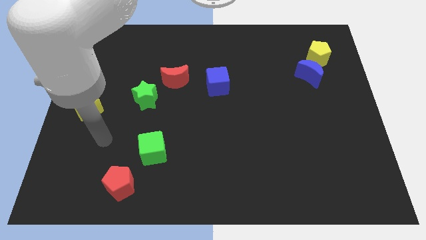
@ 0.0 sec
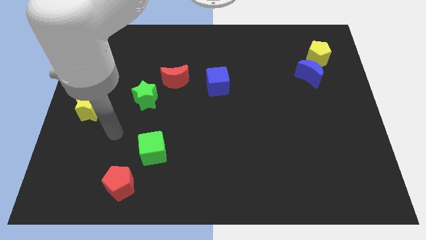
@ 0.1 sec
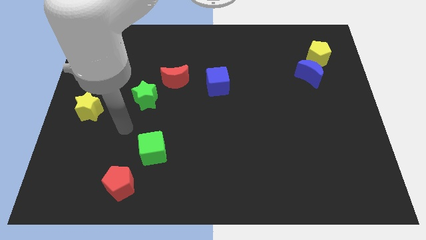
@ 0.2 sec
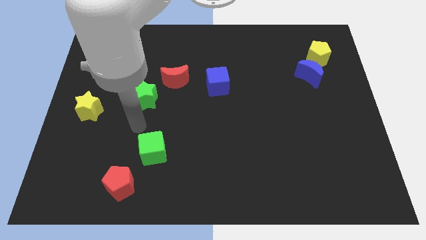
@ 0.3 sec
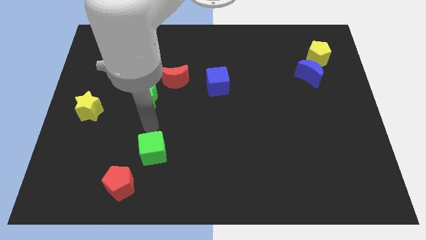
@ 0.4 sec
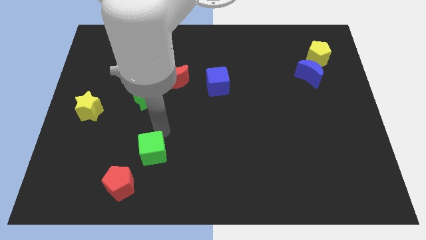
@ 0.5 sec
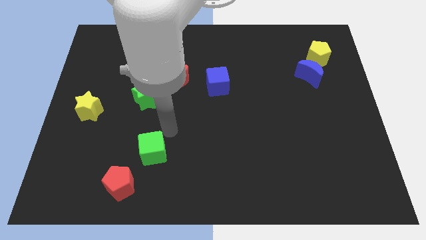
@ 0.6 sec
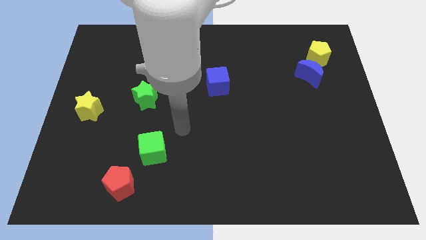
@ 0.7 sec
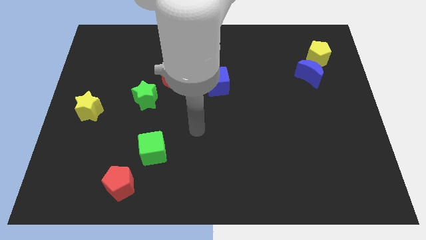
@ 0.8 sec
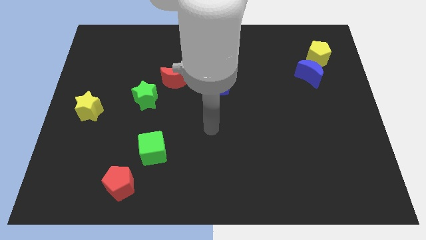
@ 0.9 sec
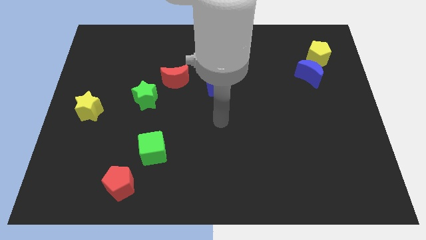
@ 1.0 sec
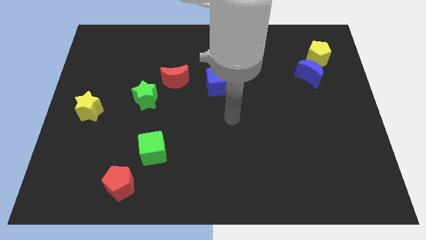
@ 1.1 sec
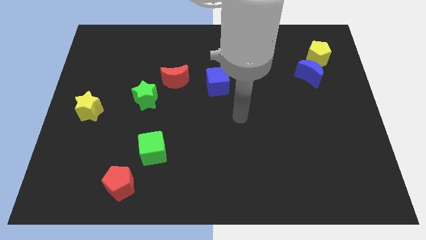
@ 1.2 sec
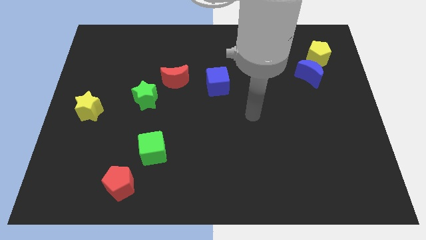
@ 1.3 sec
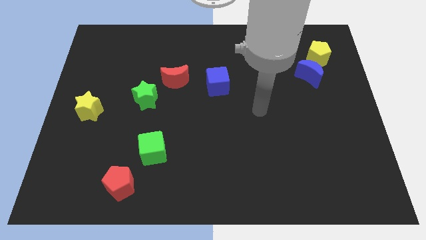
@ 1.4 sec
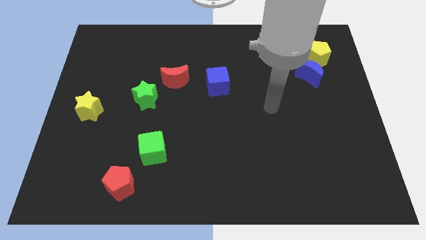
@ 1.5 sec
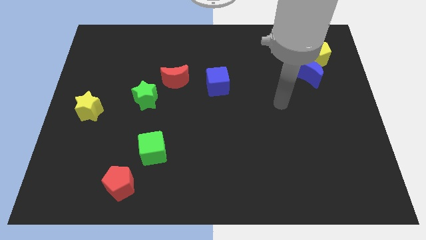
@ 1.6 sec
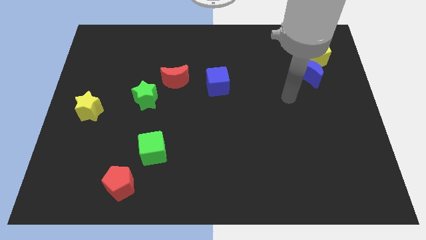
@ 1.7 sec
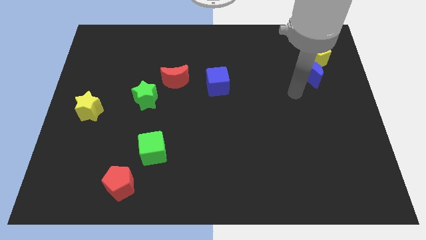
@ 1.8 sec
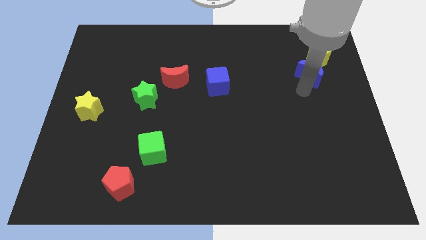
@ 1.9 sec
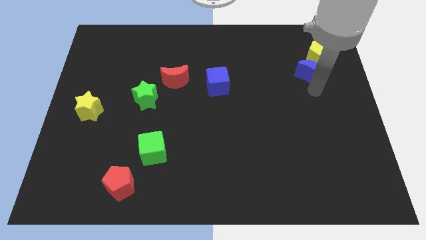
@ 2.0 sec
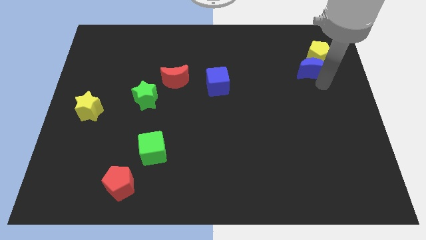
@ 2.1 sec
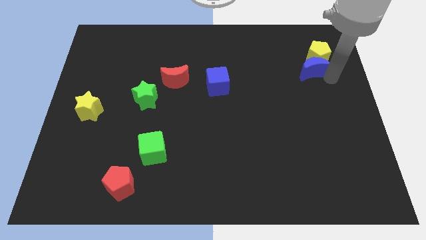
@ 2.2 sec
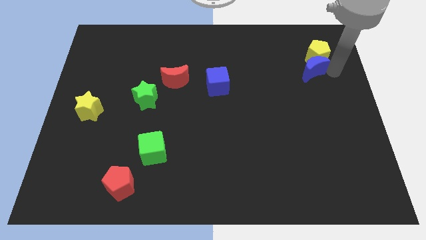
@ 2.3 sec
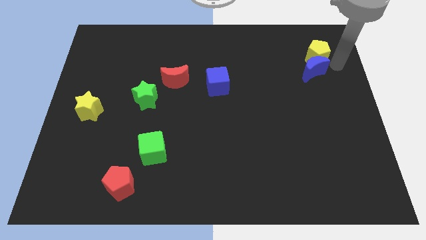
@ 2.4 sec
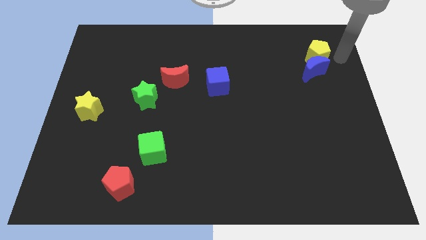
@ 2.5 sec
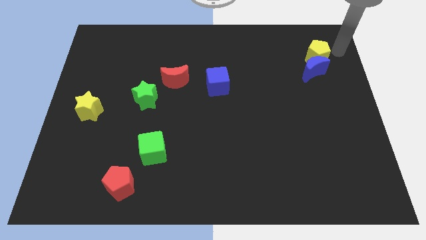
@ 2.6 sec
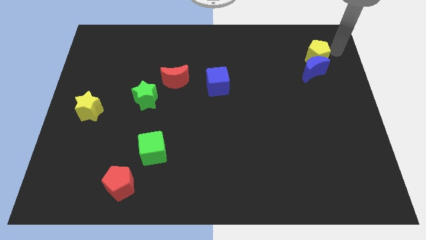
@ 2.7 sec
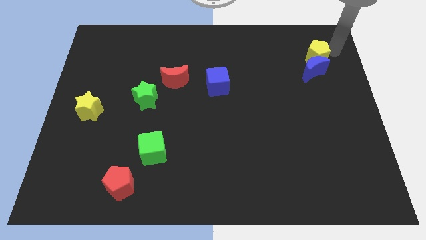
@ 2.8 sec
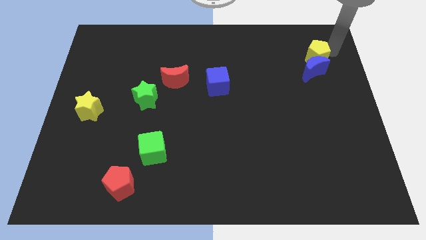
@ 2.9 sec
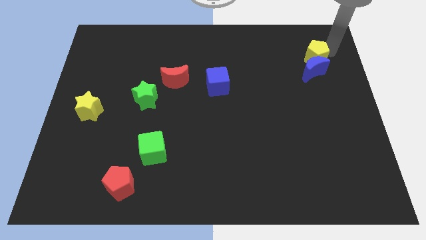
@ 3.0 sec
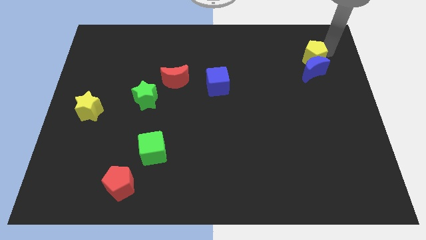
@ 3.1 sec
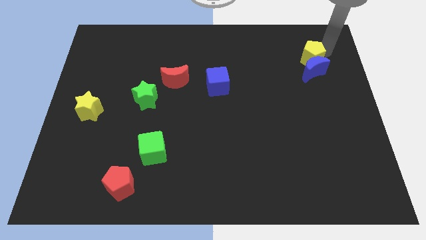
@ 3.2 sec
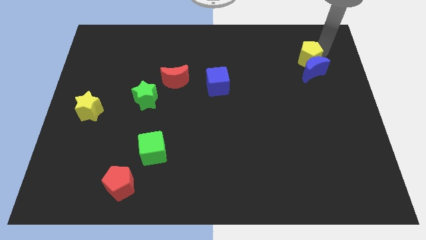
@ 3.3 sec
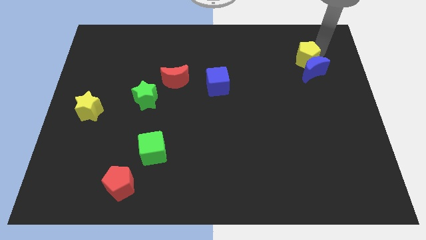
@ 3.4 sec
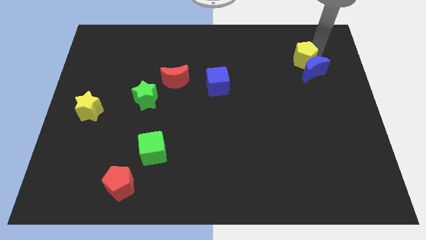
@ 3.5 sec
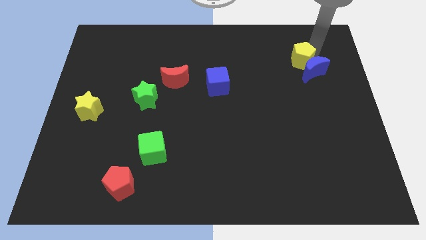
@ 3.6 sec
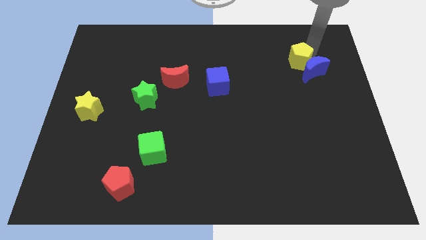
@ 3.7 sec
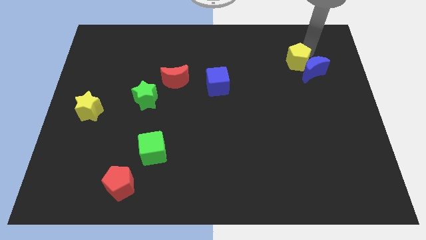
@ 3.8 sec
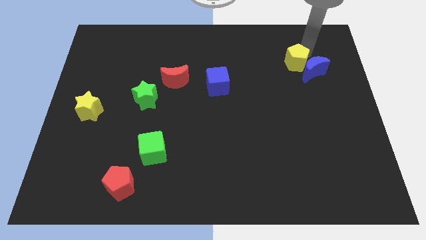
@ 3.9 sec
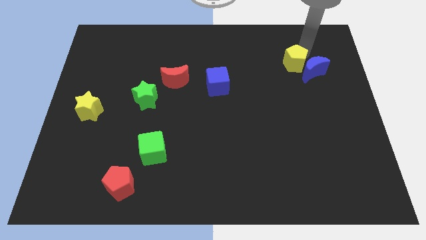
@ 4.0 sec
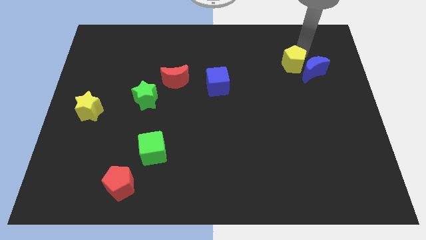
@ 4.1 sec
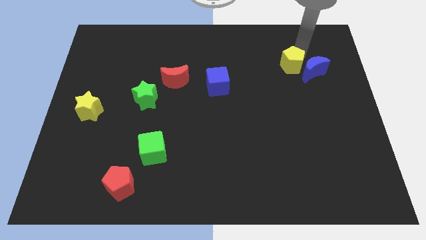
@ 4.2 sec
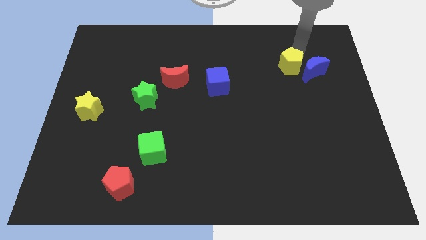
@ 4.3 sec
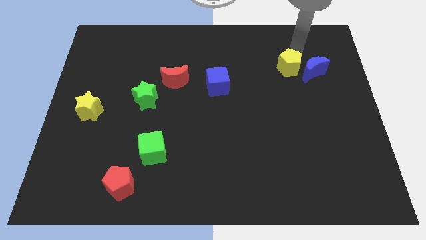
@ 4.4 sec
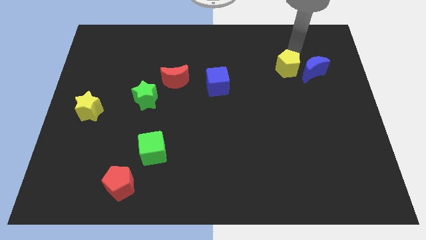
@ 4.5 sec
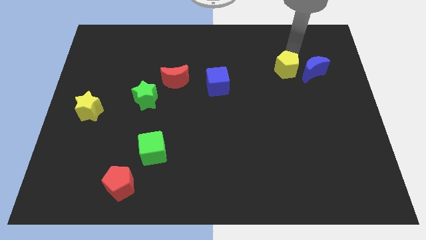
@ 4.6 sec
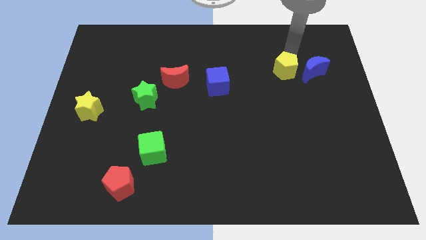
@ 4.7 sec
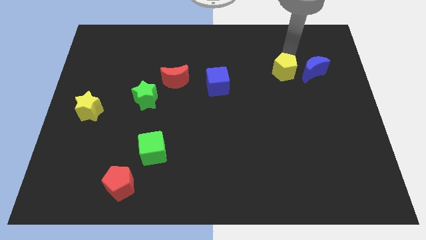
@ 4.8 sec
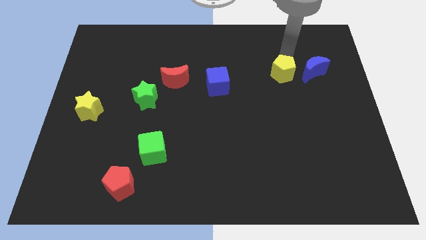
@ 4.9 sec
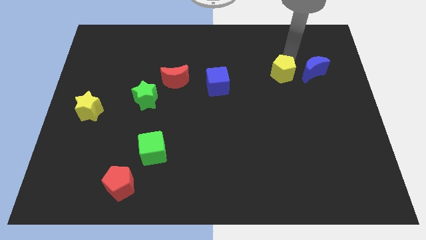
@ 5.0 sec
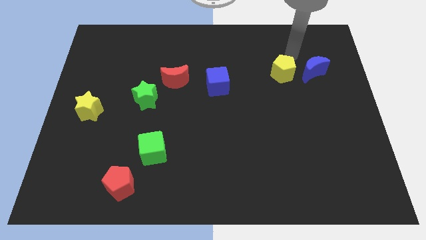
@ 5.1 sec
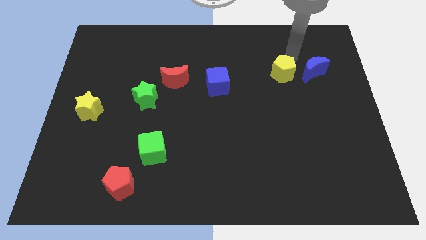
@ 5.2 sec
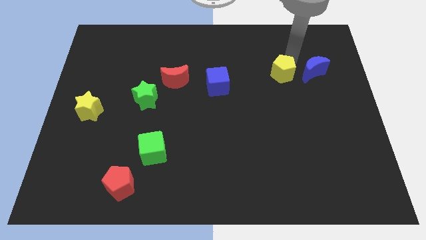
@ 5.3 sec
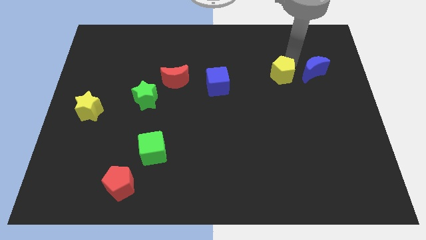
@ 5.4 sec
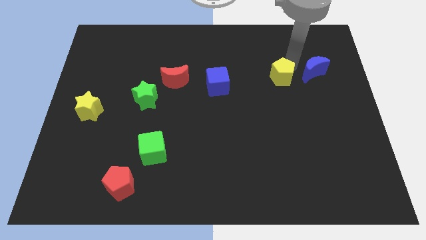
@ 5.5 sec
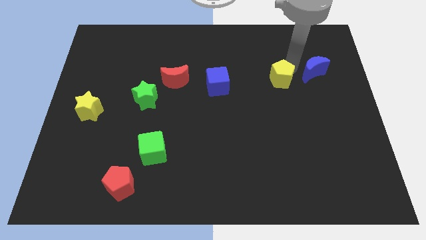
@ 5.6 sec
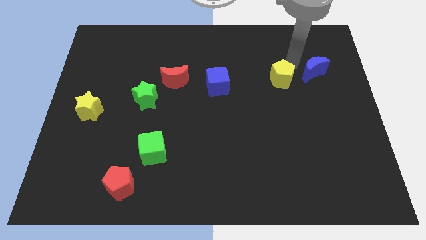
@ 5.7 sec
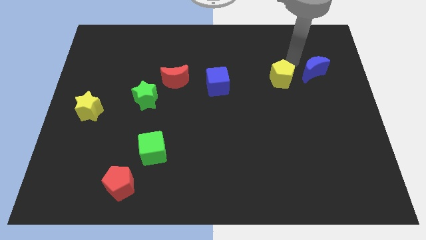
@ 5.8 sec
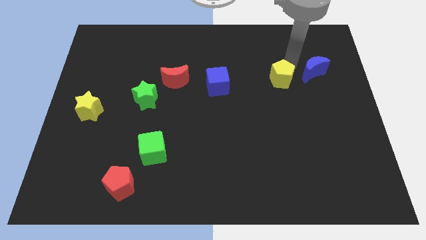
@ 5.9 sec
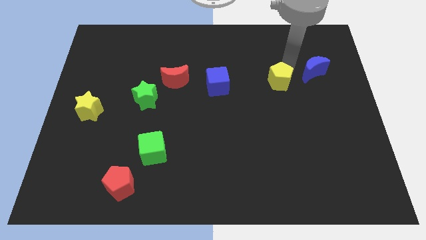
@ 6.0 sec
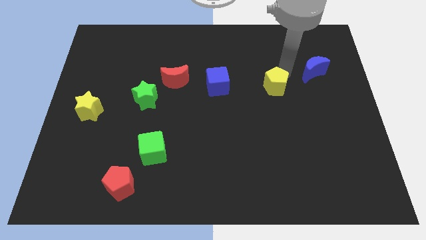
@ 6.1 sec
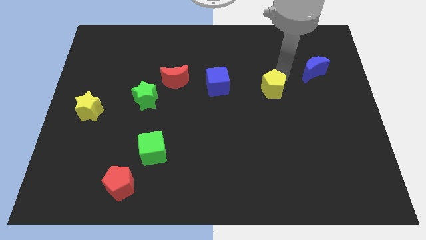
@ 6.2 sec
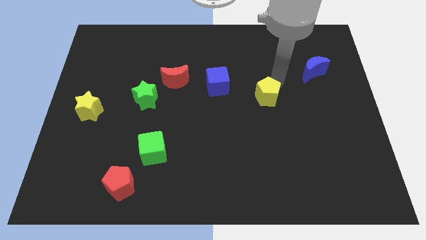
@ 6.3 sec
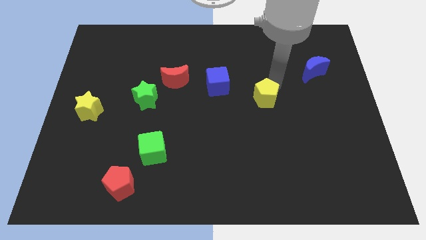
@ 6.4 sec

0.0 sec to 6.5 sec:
push the yellow pentagon downwards and left

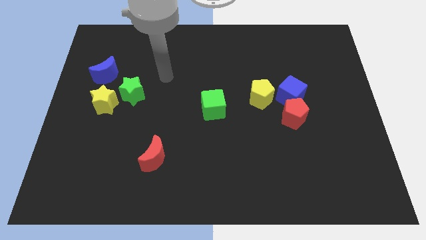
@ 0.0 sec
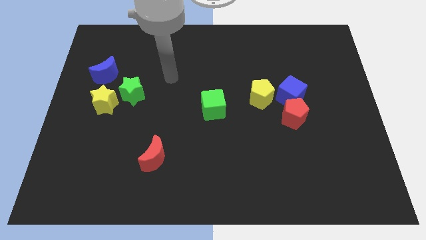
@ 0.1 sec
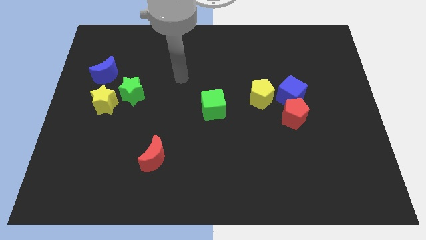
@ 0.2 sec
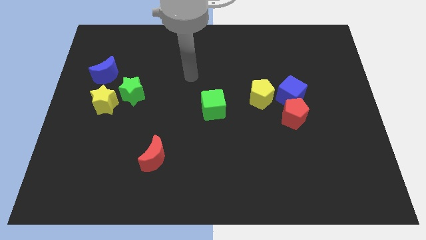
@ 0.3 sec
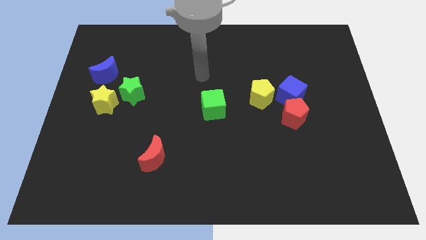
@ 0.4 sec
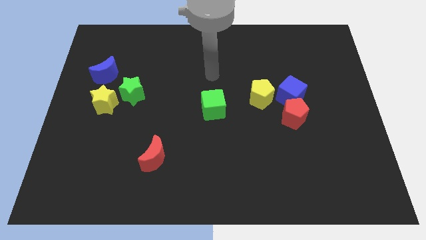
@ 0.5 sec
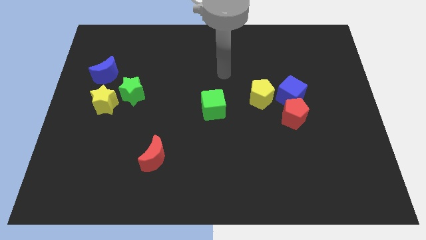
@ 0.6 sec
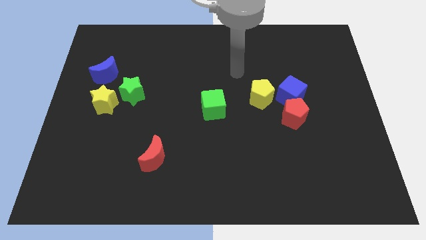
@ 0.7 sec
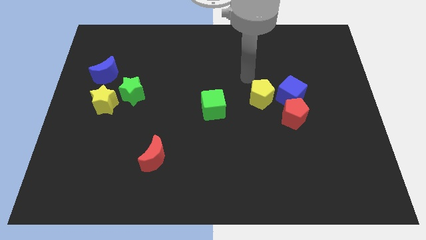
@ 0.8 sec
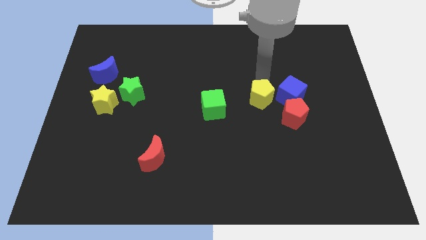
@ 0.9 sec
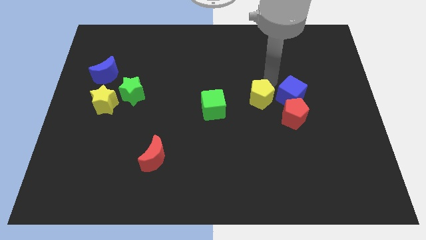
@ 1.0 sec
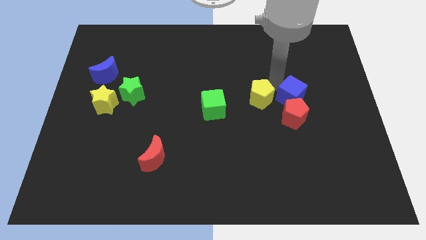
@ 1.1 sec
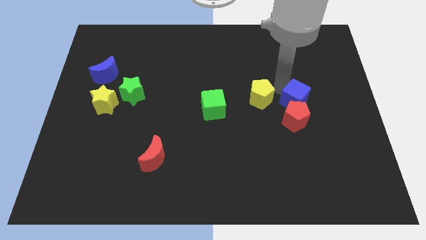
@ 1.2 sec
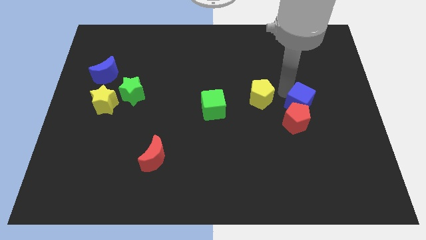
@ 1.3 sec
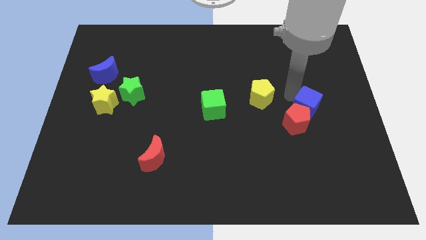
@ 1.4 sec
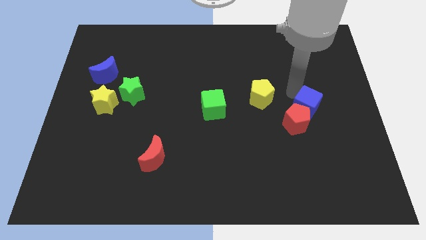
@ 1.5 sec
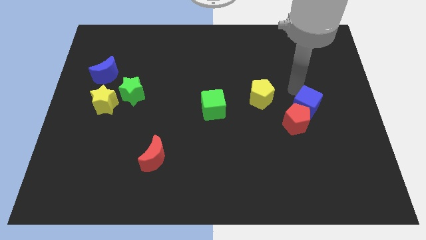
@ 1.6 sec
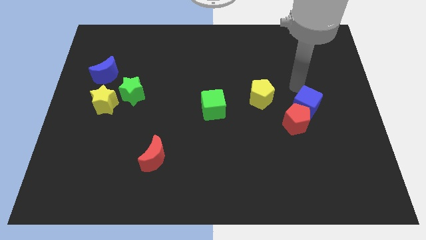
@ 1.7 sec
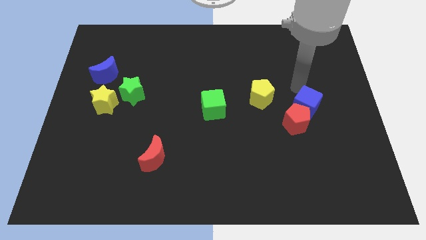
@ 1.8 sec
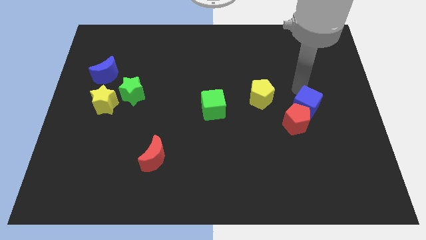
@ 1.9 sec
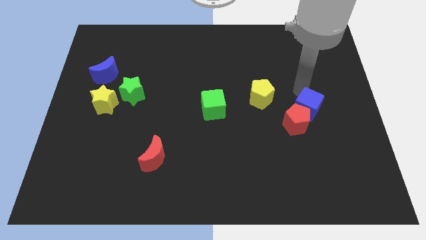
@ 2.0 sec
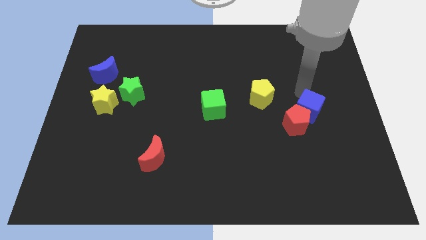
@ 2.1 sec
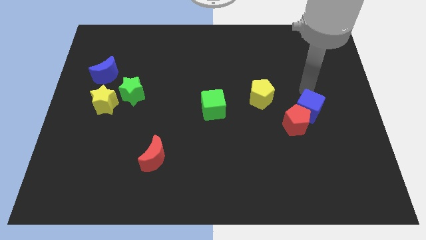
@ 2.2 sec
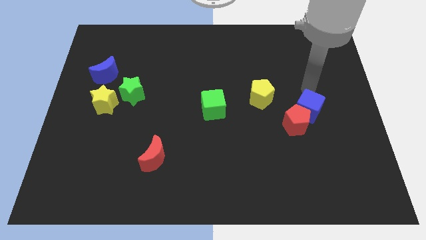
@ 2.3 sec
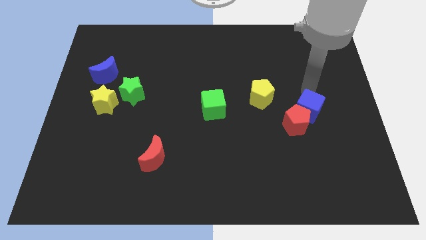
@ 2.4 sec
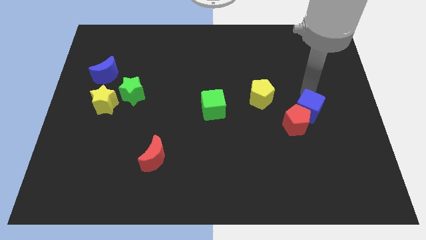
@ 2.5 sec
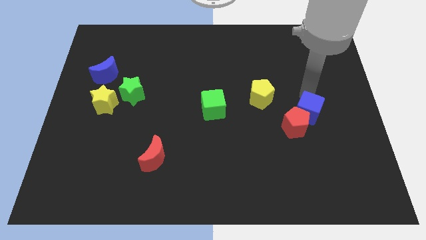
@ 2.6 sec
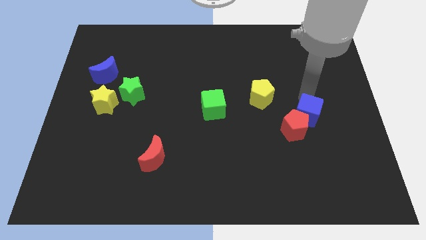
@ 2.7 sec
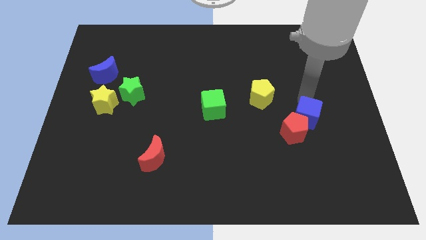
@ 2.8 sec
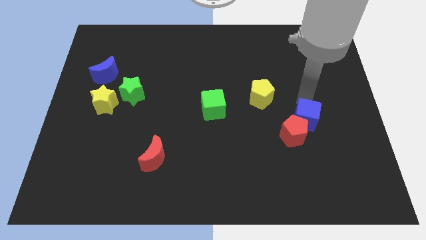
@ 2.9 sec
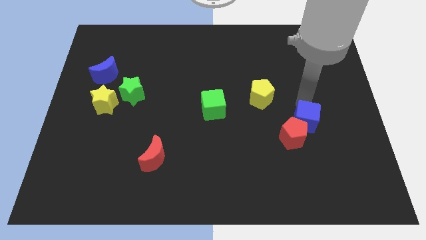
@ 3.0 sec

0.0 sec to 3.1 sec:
slightly move the blue cube down
